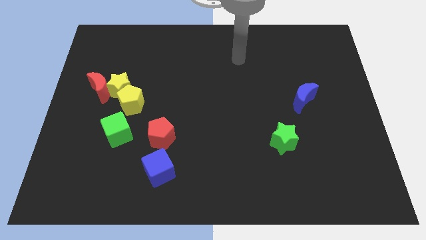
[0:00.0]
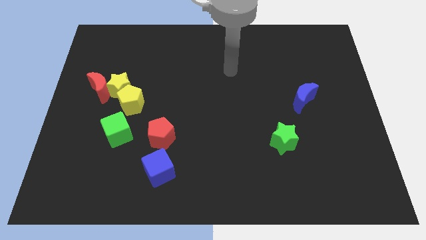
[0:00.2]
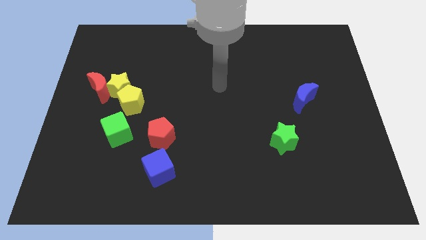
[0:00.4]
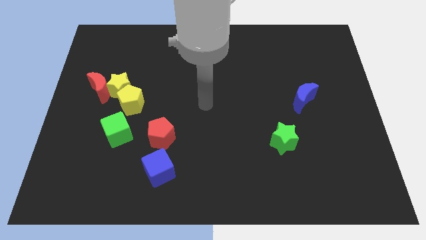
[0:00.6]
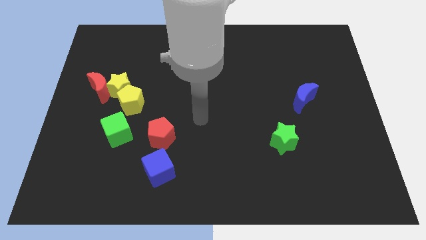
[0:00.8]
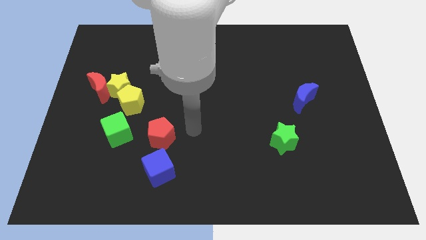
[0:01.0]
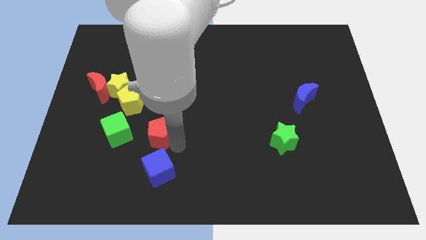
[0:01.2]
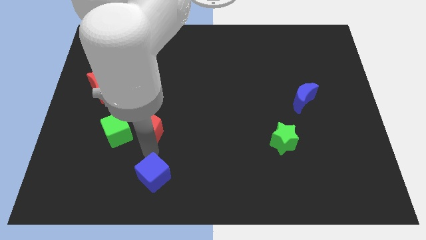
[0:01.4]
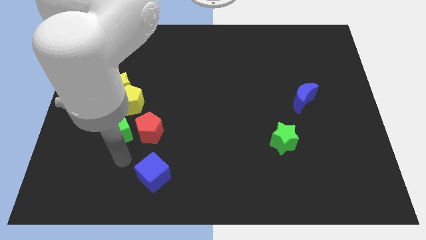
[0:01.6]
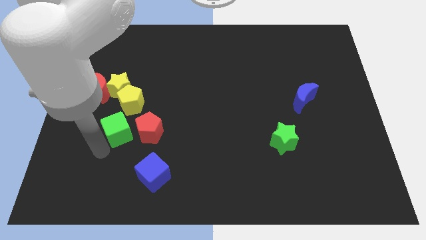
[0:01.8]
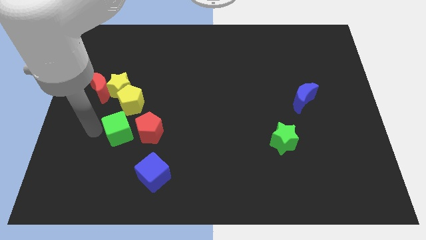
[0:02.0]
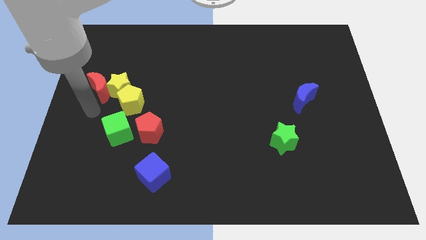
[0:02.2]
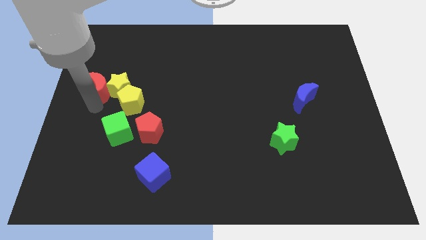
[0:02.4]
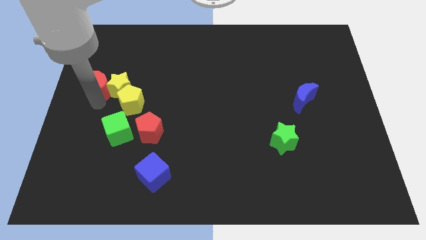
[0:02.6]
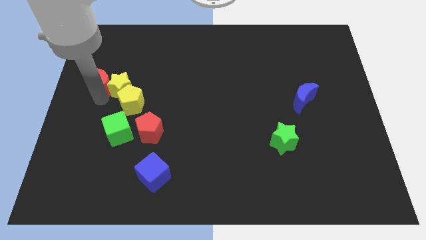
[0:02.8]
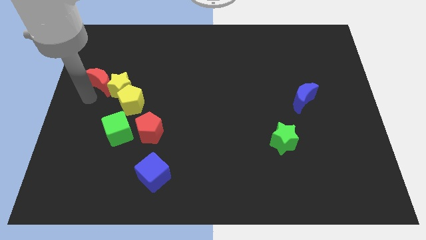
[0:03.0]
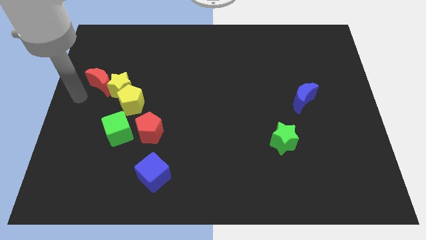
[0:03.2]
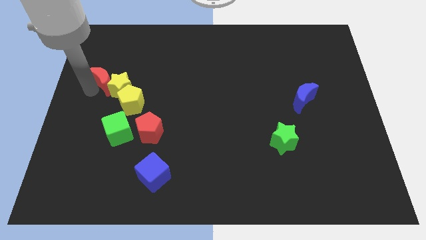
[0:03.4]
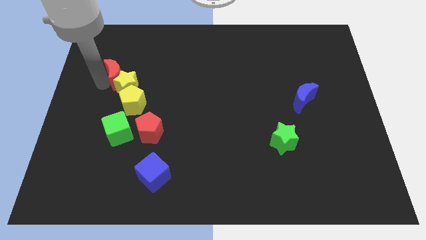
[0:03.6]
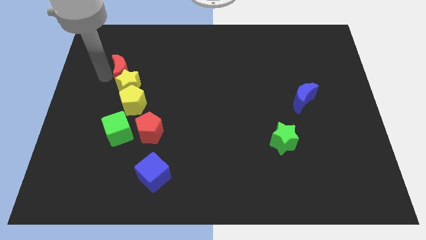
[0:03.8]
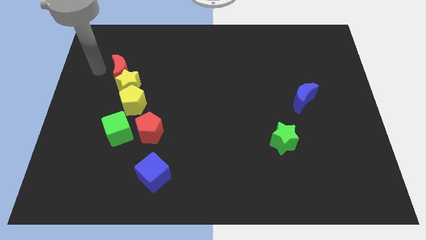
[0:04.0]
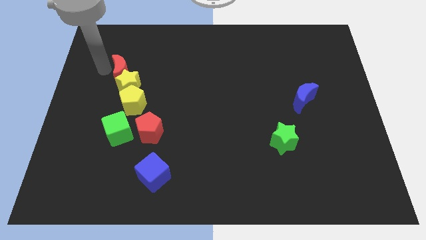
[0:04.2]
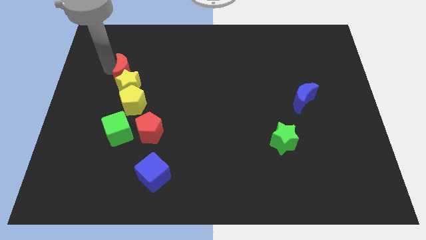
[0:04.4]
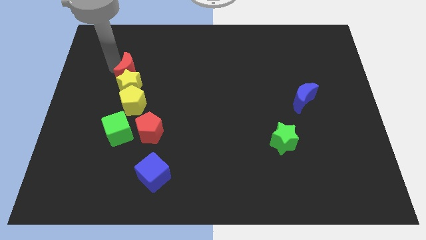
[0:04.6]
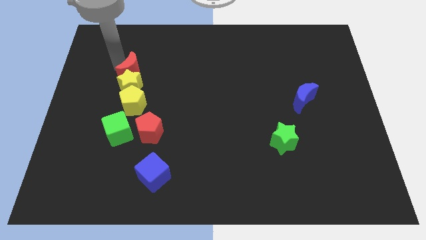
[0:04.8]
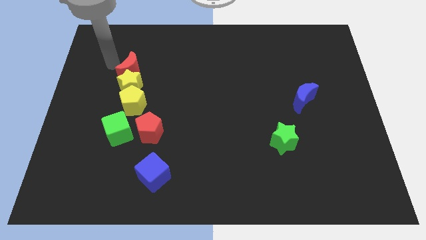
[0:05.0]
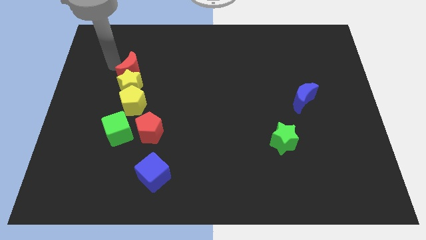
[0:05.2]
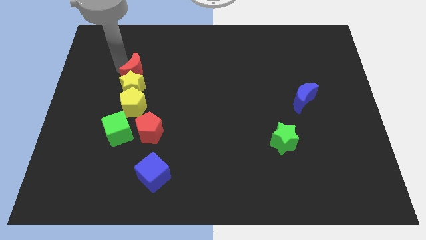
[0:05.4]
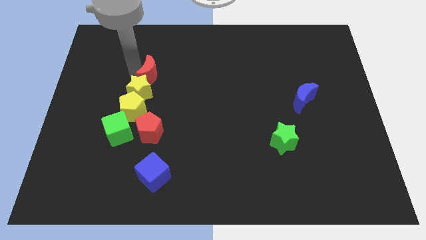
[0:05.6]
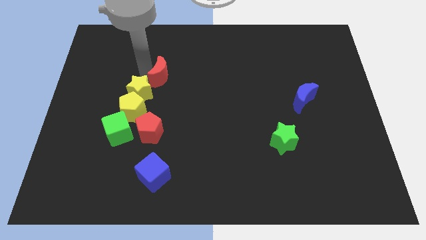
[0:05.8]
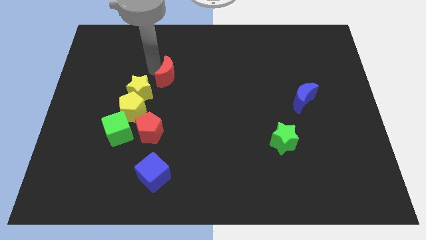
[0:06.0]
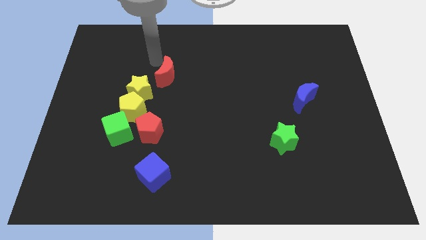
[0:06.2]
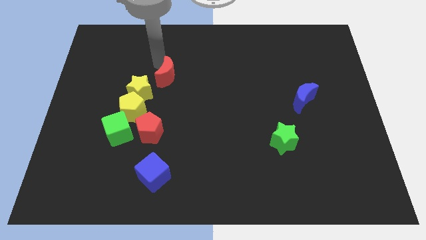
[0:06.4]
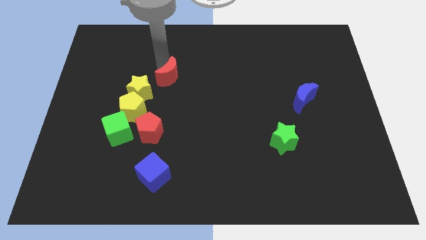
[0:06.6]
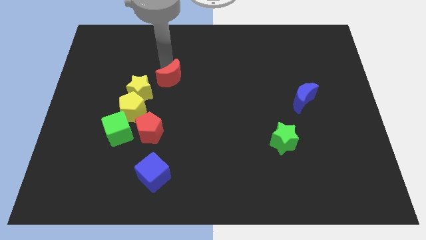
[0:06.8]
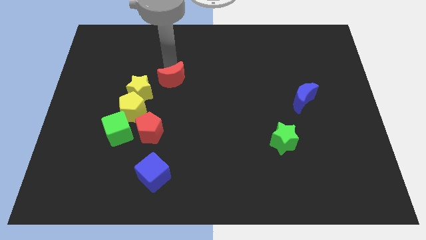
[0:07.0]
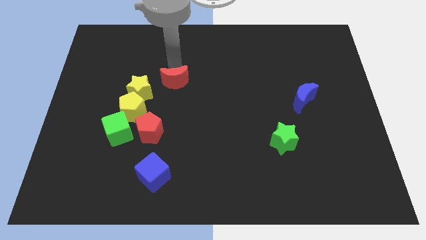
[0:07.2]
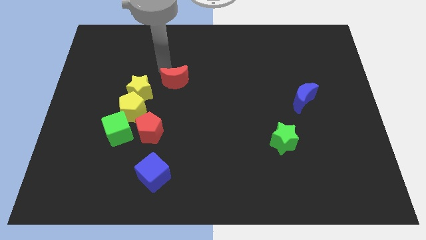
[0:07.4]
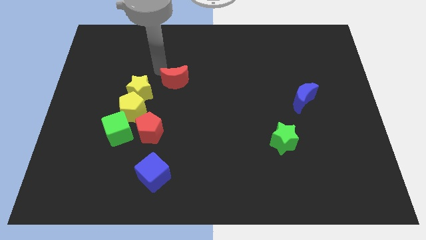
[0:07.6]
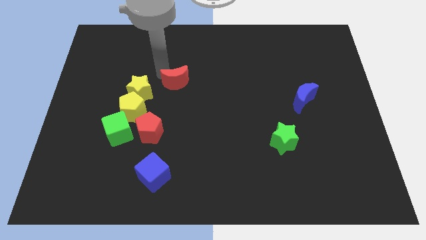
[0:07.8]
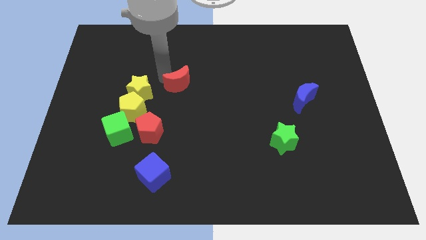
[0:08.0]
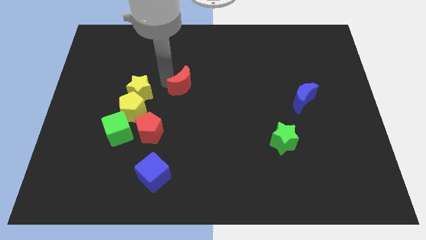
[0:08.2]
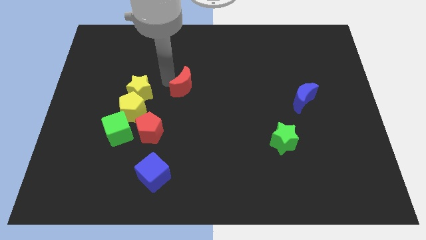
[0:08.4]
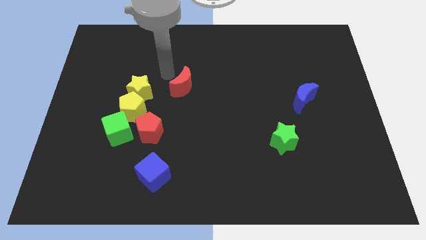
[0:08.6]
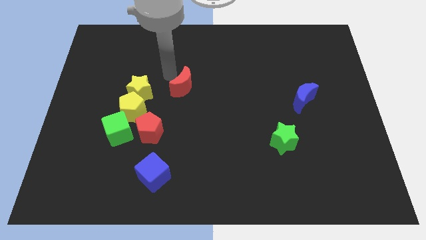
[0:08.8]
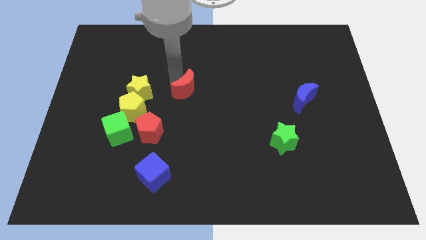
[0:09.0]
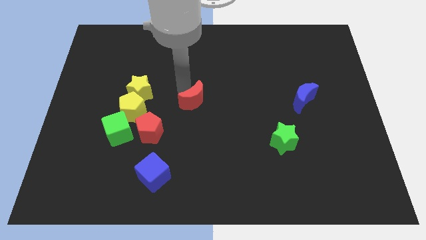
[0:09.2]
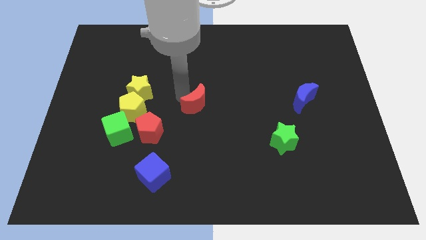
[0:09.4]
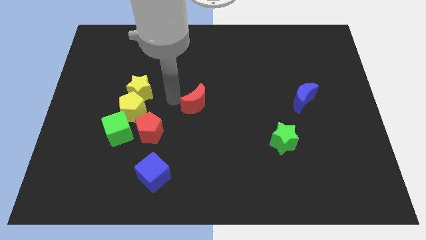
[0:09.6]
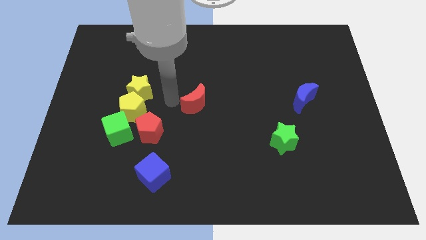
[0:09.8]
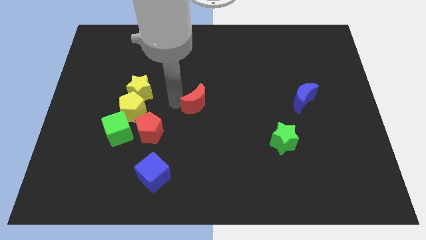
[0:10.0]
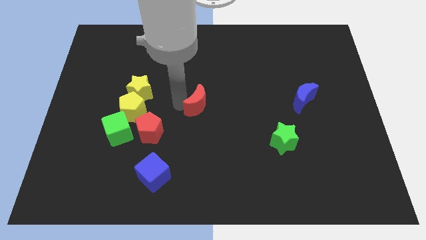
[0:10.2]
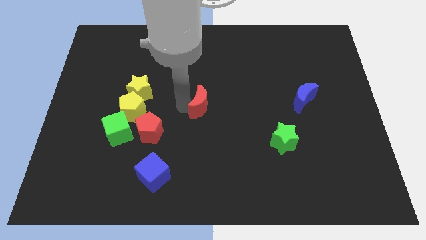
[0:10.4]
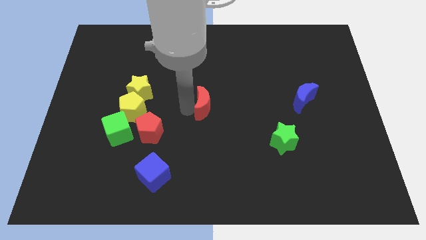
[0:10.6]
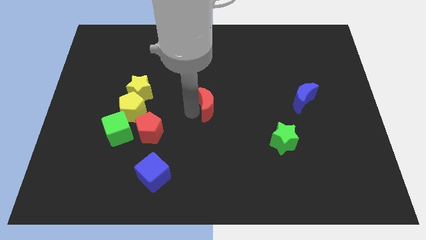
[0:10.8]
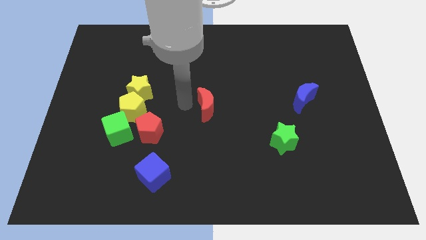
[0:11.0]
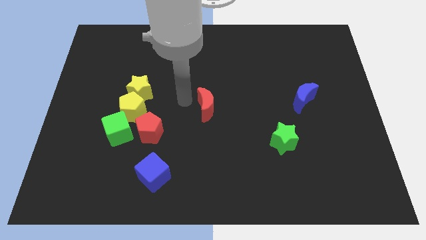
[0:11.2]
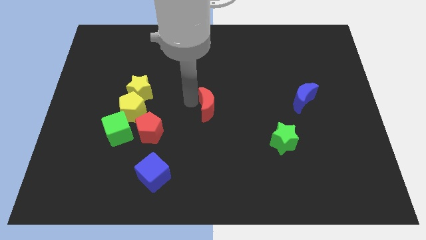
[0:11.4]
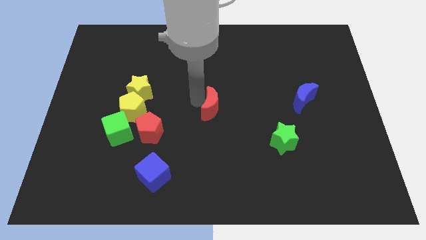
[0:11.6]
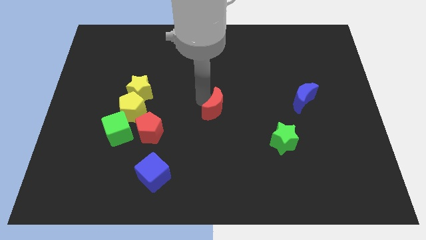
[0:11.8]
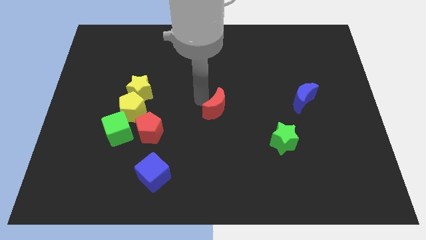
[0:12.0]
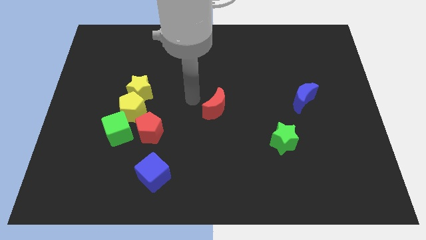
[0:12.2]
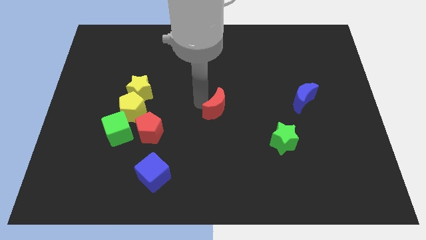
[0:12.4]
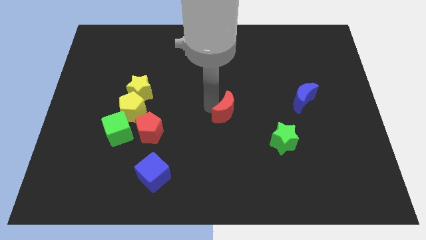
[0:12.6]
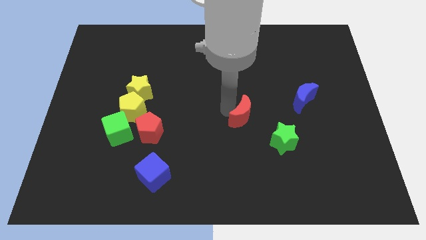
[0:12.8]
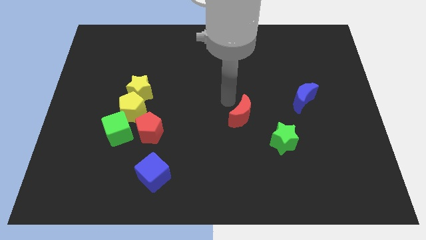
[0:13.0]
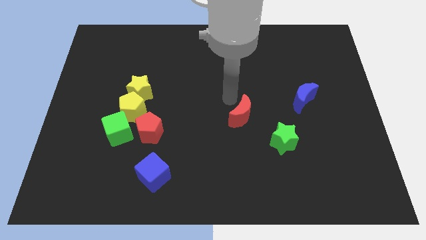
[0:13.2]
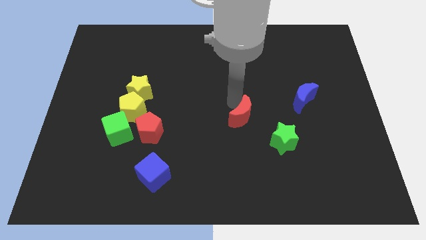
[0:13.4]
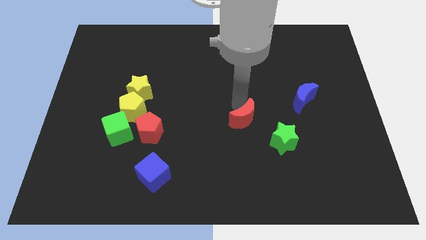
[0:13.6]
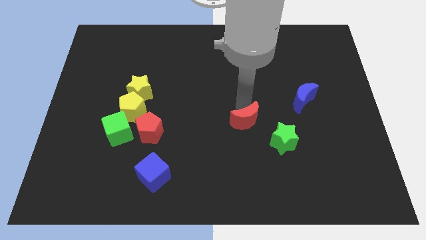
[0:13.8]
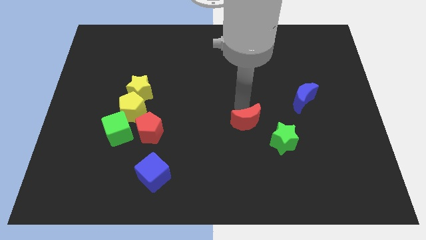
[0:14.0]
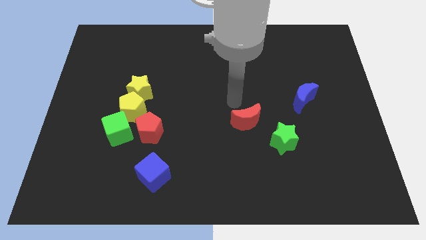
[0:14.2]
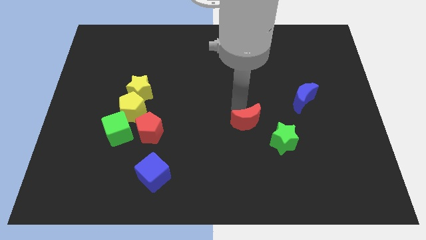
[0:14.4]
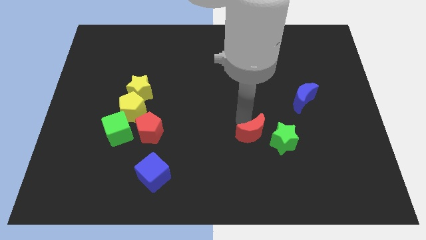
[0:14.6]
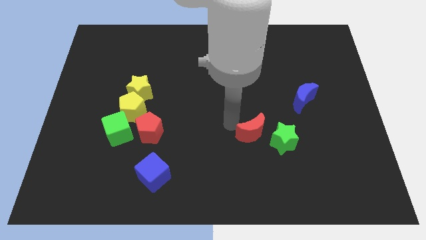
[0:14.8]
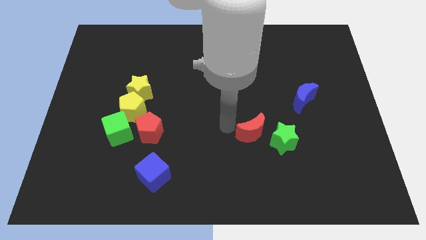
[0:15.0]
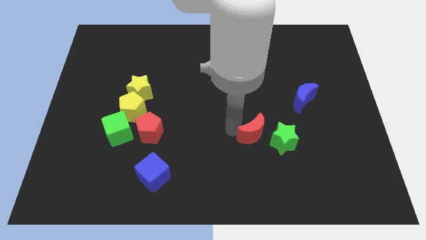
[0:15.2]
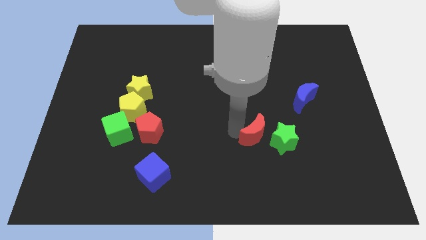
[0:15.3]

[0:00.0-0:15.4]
slide the red moon next to the green star

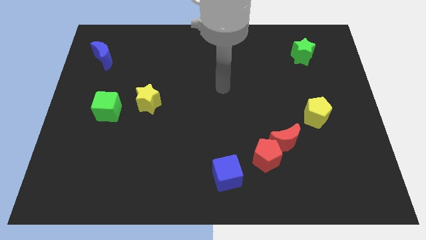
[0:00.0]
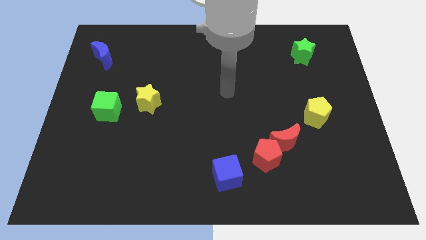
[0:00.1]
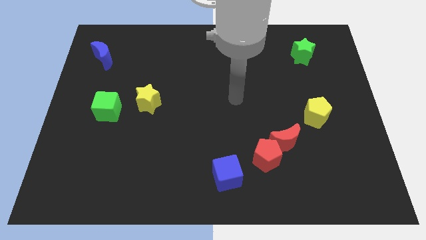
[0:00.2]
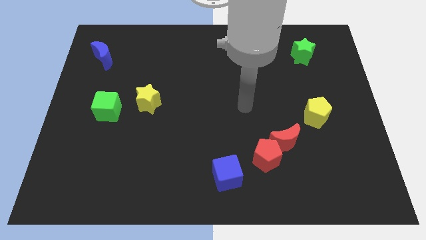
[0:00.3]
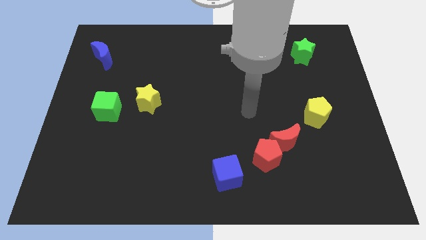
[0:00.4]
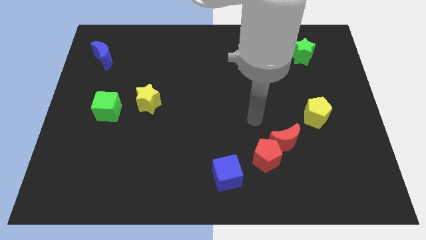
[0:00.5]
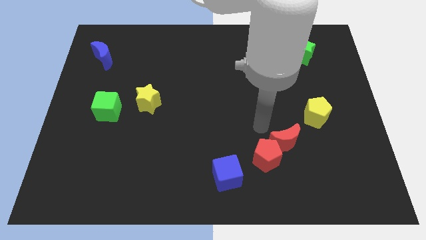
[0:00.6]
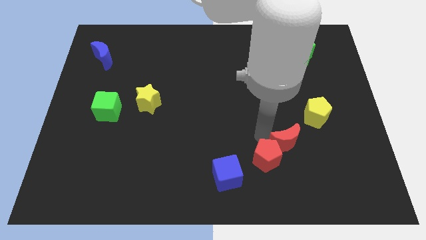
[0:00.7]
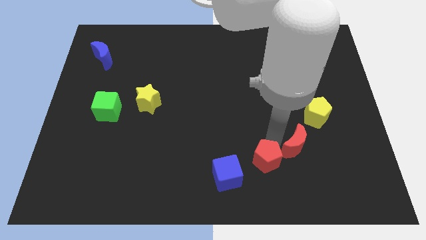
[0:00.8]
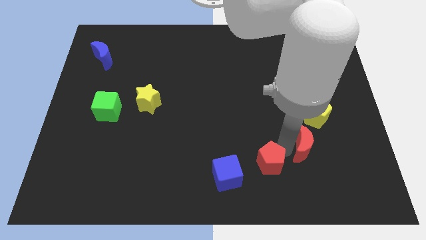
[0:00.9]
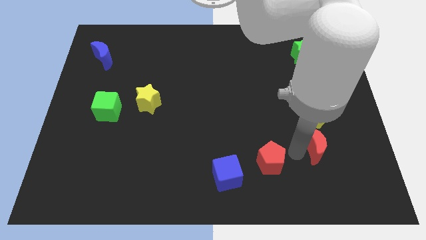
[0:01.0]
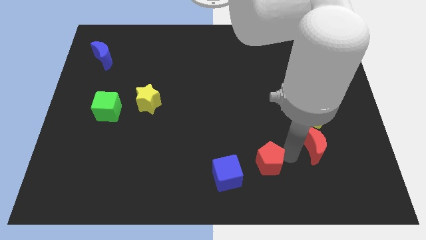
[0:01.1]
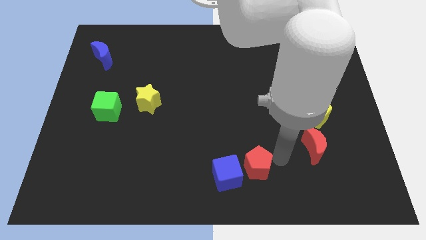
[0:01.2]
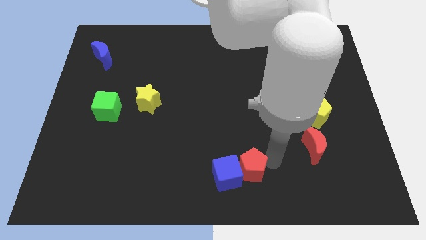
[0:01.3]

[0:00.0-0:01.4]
move the red pentagon close to the blue cube
